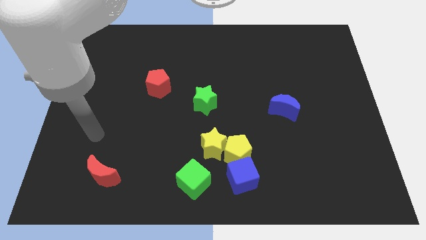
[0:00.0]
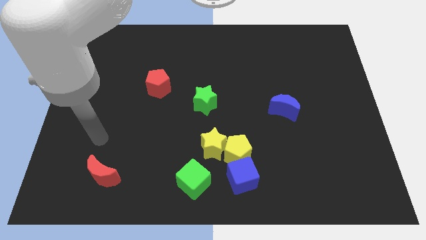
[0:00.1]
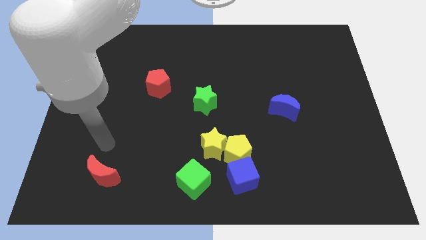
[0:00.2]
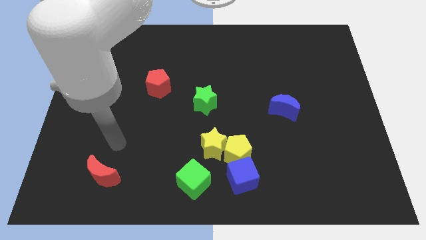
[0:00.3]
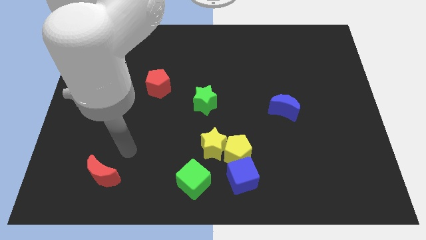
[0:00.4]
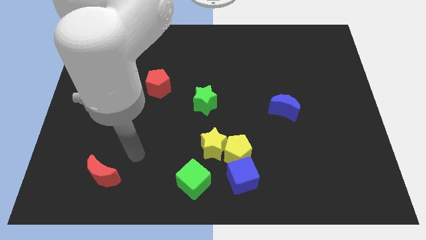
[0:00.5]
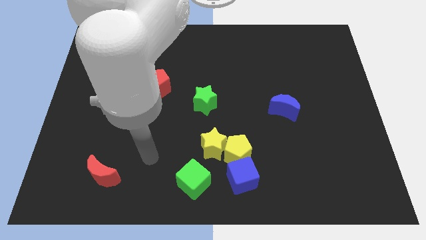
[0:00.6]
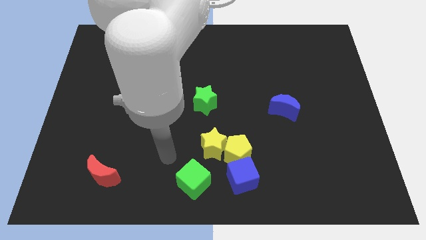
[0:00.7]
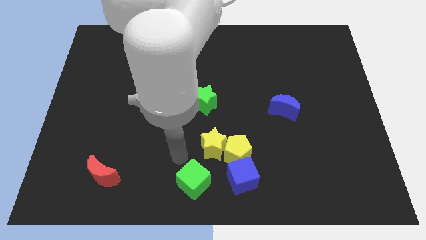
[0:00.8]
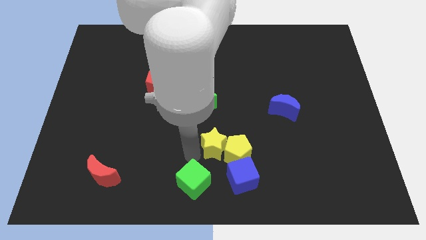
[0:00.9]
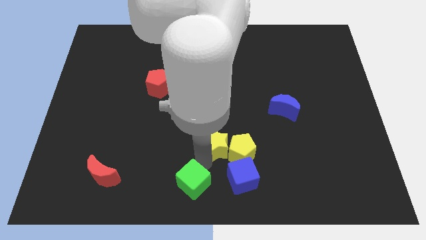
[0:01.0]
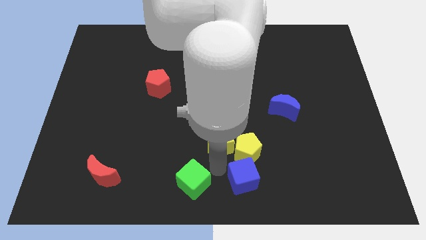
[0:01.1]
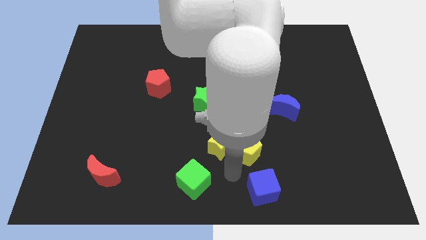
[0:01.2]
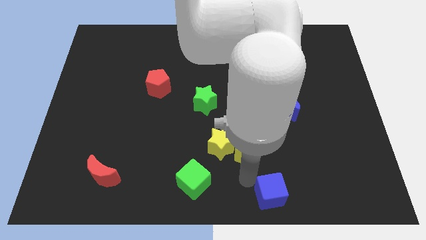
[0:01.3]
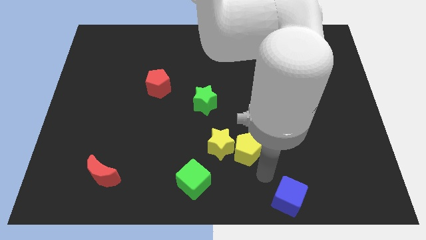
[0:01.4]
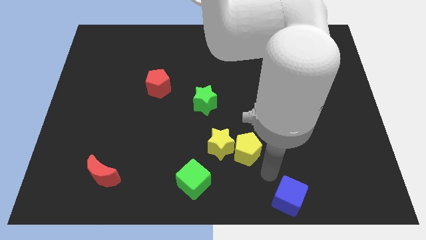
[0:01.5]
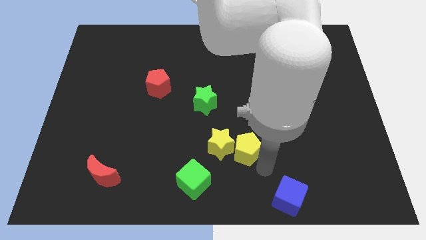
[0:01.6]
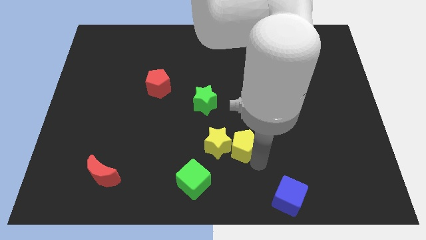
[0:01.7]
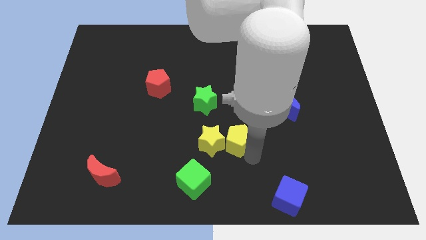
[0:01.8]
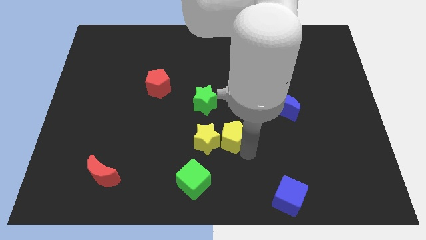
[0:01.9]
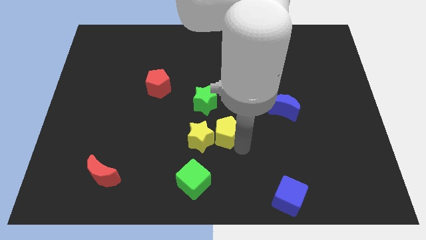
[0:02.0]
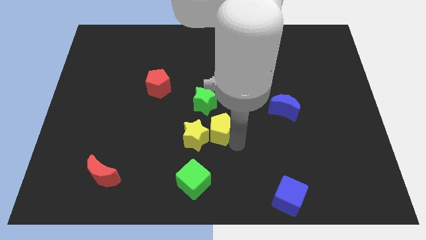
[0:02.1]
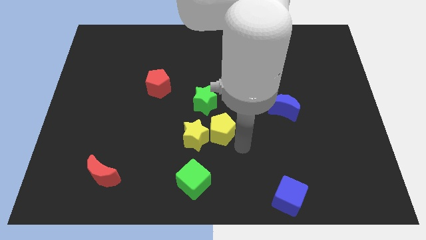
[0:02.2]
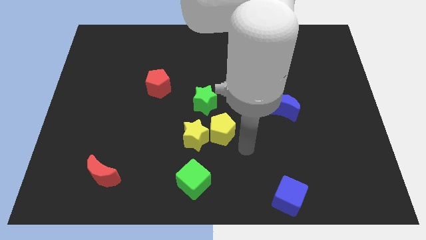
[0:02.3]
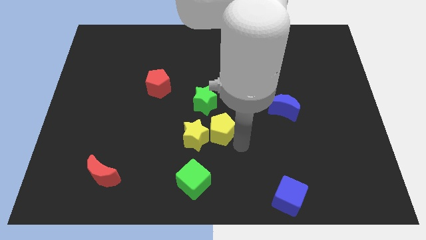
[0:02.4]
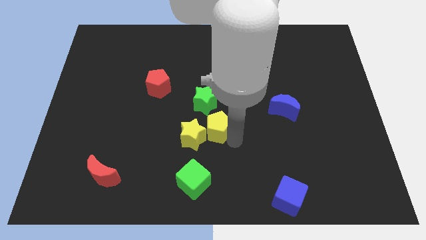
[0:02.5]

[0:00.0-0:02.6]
move the yellow pentagon a little bit upwards and to the left

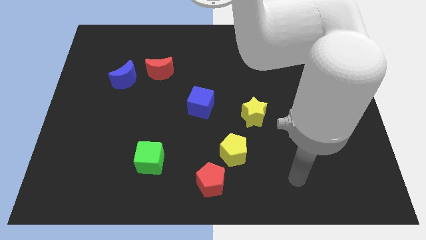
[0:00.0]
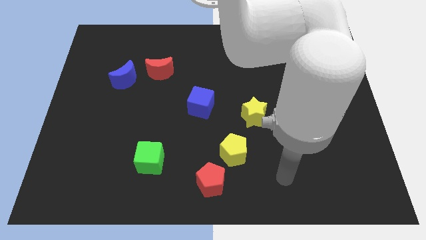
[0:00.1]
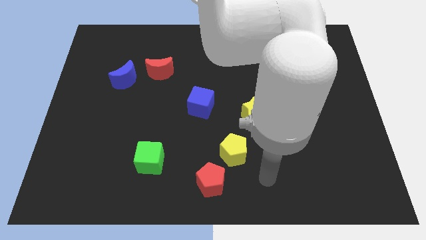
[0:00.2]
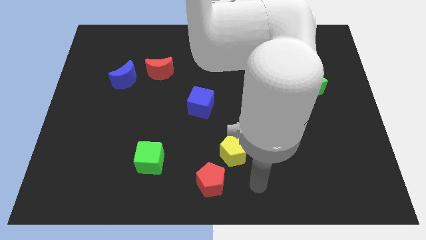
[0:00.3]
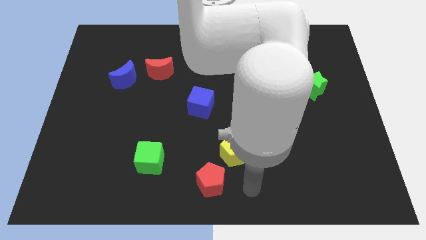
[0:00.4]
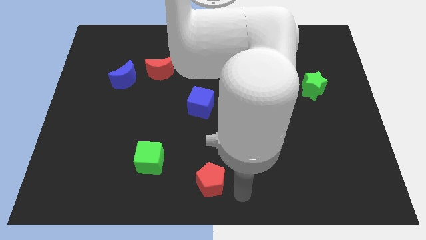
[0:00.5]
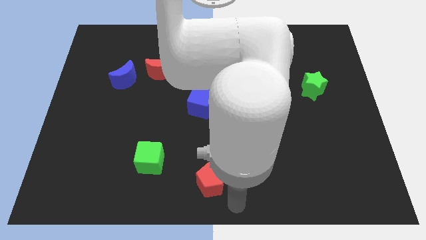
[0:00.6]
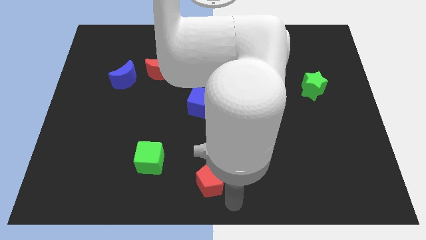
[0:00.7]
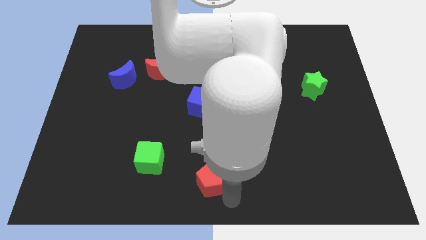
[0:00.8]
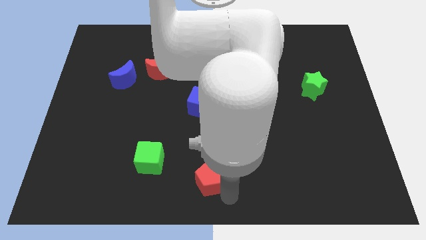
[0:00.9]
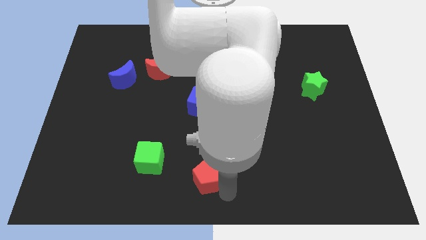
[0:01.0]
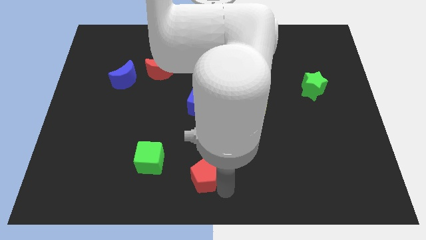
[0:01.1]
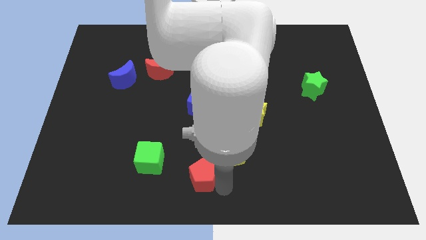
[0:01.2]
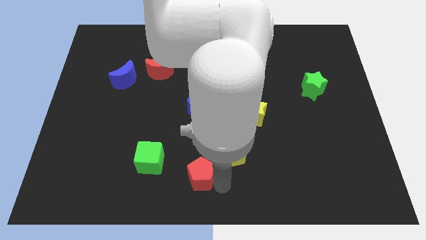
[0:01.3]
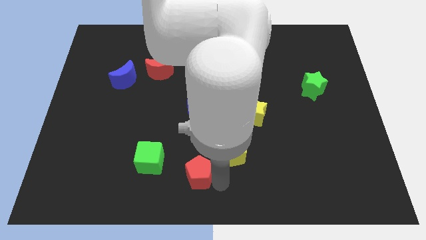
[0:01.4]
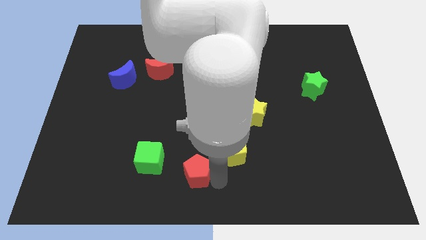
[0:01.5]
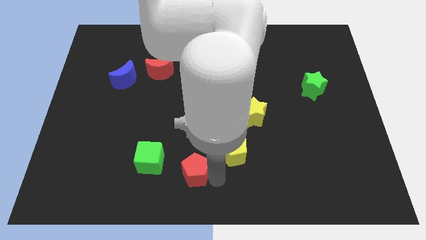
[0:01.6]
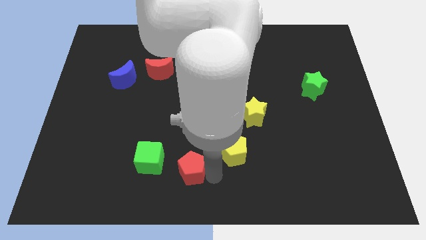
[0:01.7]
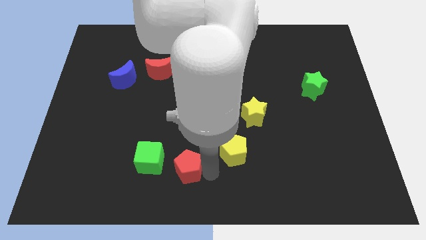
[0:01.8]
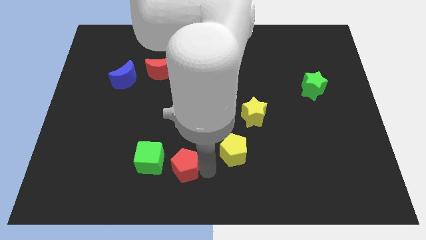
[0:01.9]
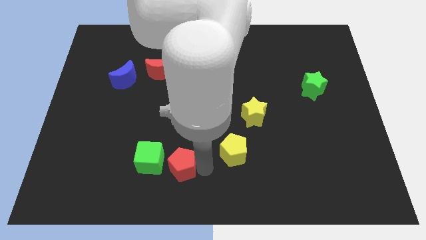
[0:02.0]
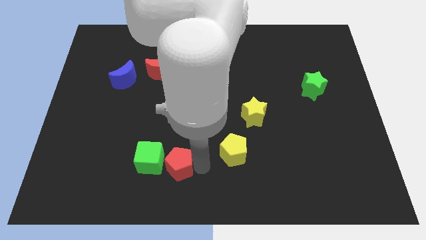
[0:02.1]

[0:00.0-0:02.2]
slightly move the red pentagon up and to the left

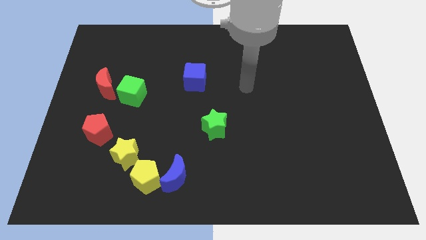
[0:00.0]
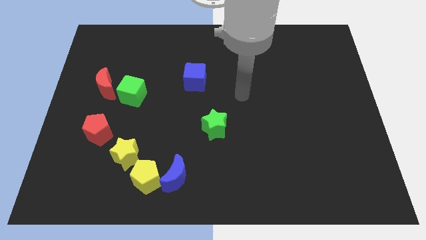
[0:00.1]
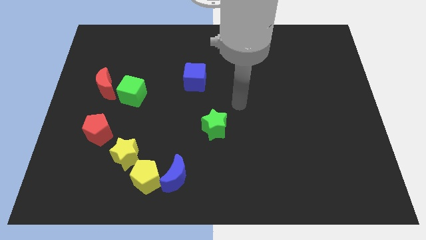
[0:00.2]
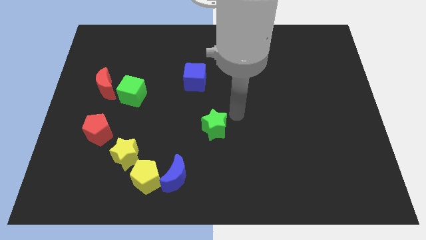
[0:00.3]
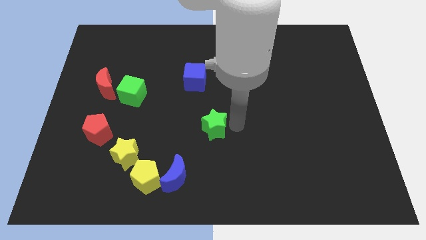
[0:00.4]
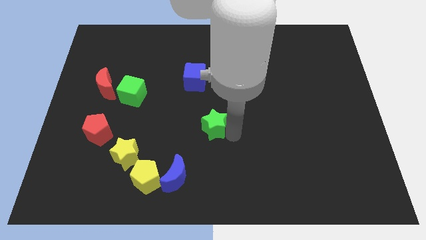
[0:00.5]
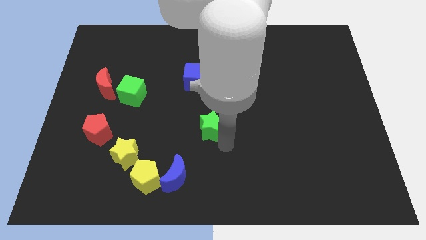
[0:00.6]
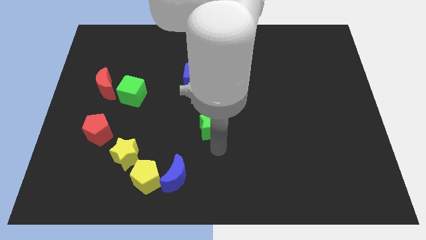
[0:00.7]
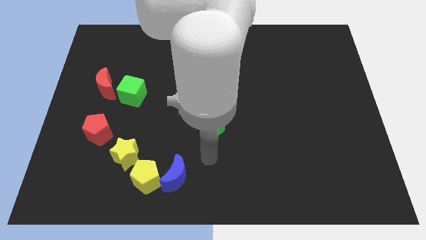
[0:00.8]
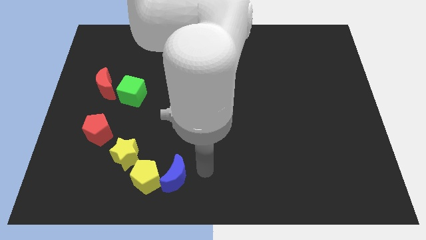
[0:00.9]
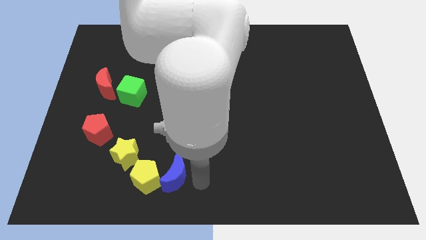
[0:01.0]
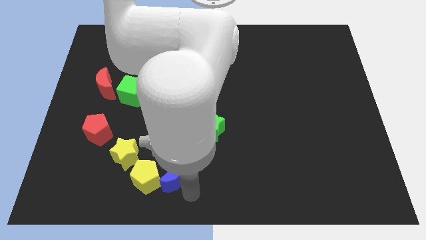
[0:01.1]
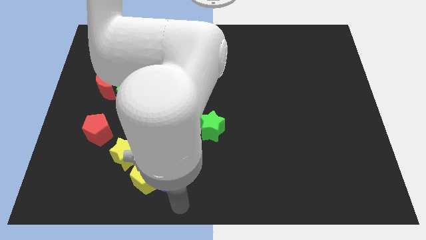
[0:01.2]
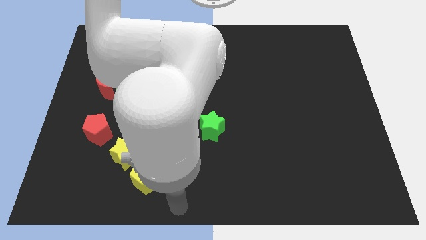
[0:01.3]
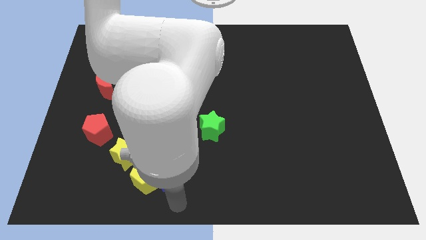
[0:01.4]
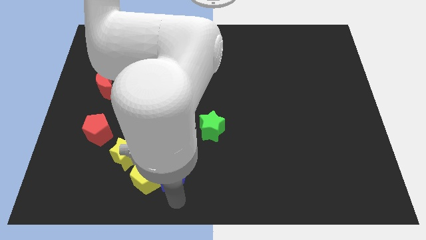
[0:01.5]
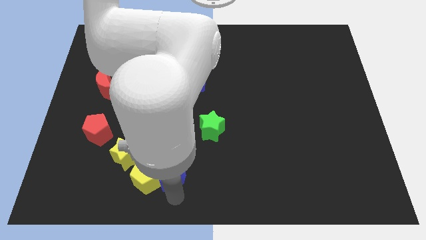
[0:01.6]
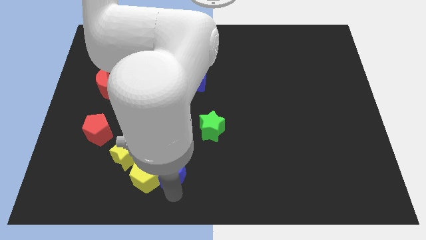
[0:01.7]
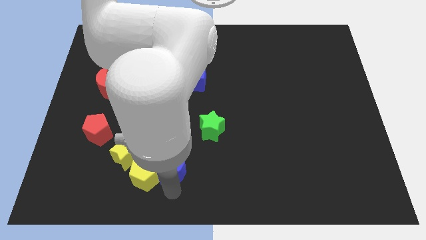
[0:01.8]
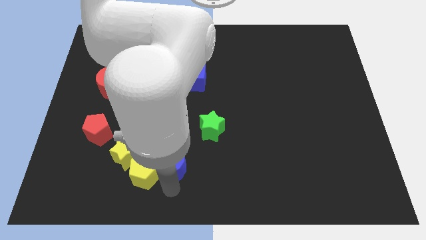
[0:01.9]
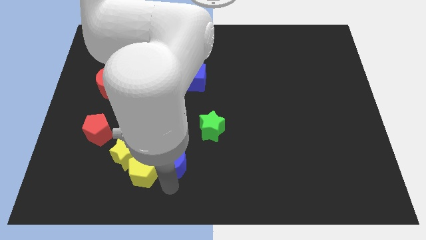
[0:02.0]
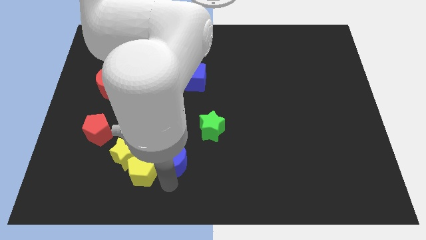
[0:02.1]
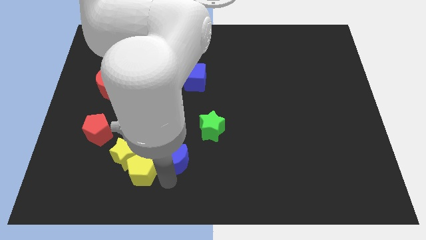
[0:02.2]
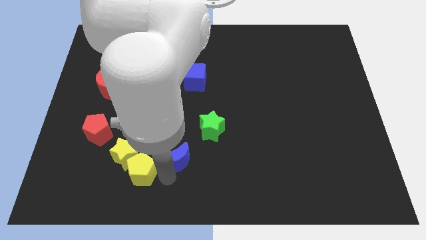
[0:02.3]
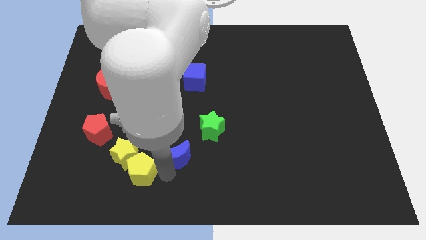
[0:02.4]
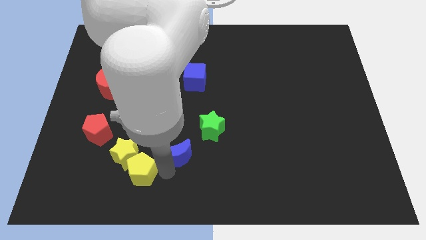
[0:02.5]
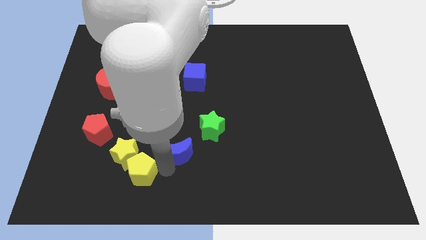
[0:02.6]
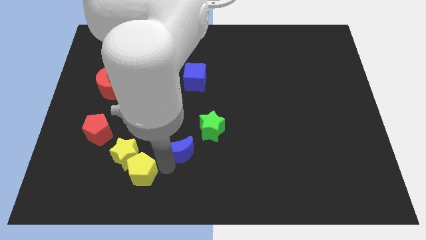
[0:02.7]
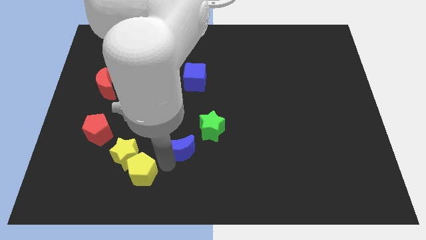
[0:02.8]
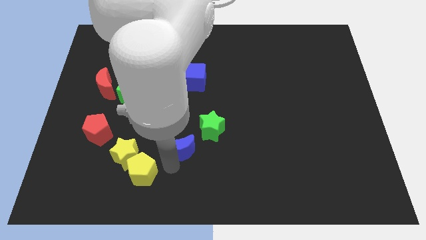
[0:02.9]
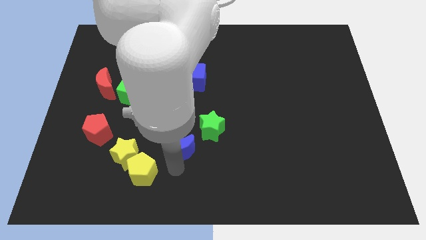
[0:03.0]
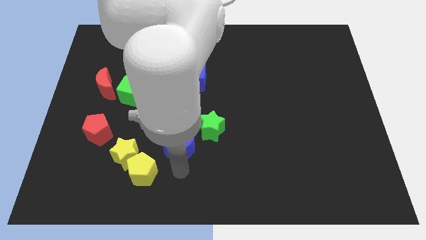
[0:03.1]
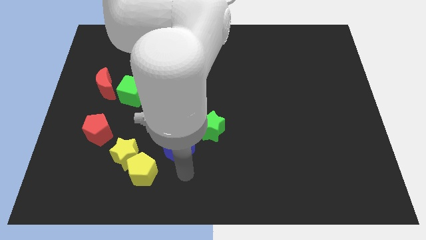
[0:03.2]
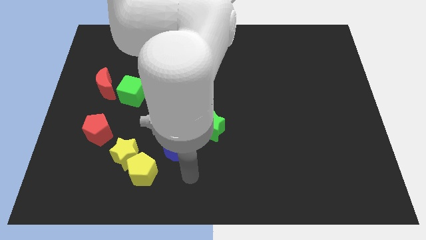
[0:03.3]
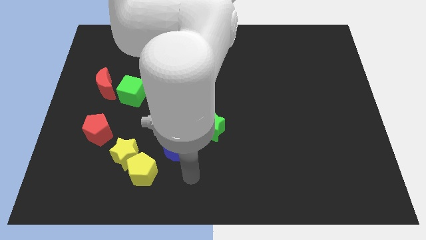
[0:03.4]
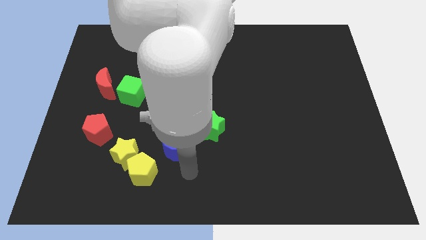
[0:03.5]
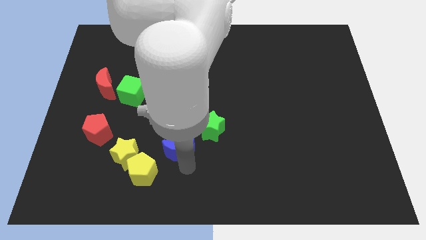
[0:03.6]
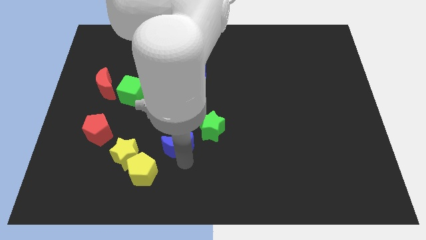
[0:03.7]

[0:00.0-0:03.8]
move the blue moon a bit up
